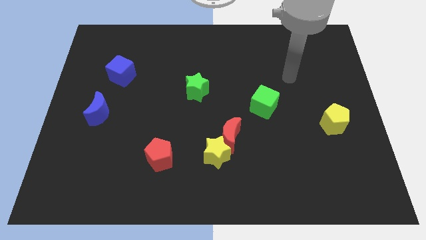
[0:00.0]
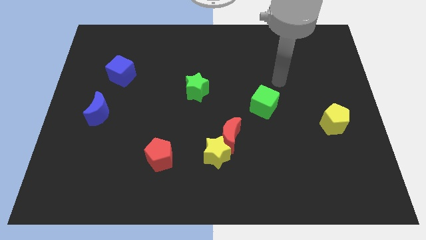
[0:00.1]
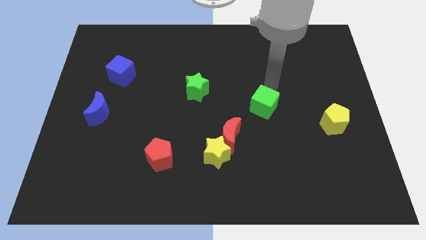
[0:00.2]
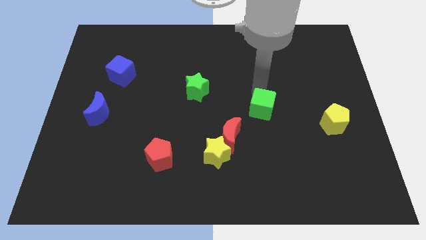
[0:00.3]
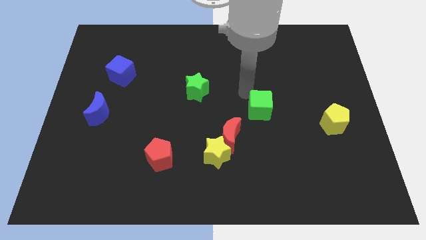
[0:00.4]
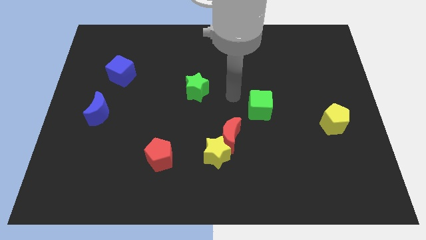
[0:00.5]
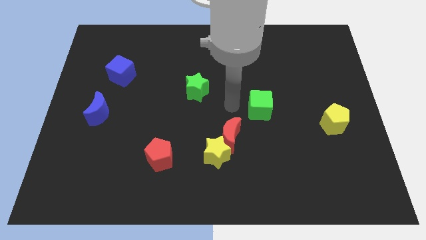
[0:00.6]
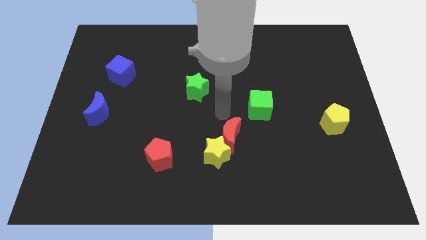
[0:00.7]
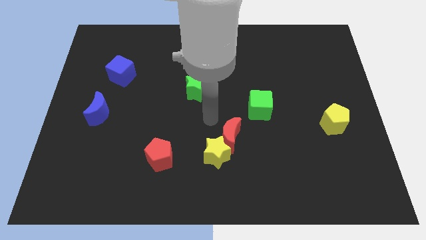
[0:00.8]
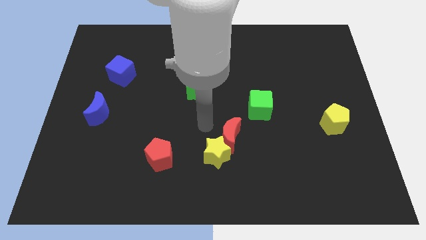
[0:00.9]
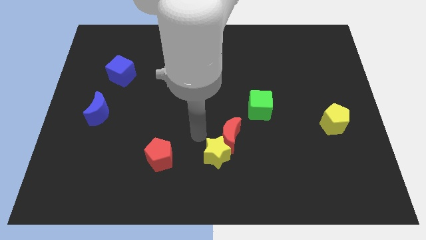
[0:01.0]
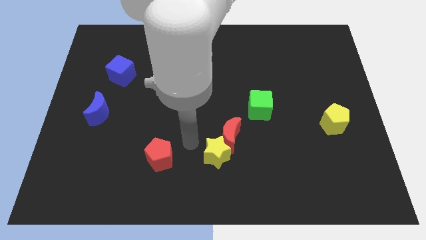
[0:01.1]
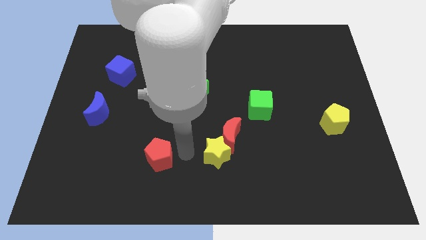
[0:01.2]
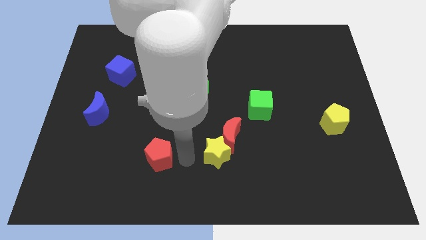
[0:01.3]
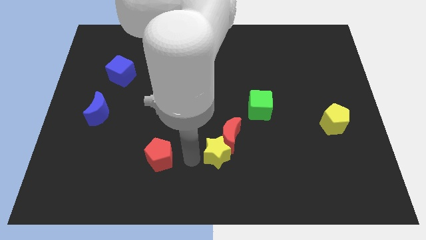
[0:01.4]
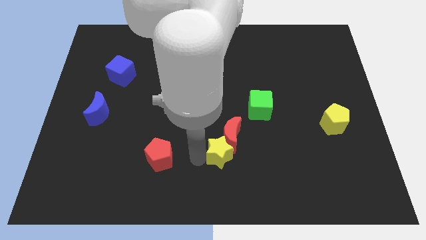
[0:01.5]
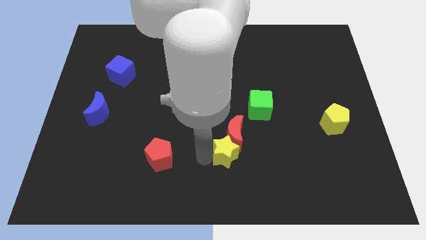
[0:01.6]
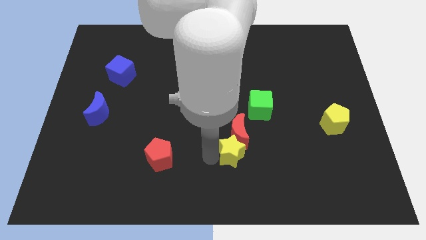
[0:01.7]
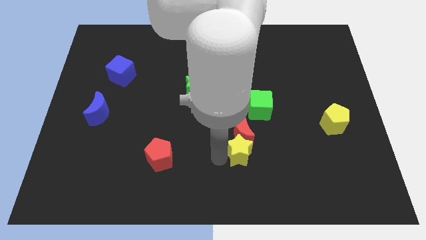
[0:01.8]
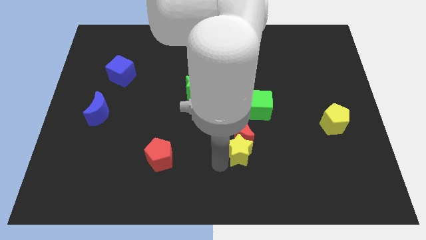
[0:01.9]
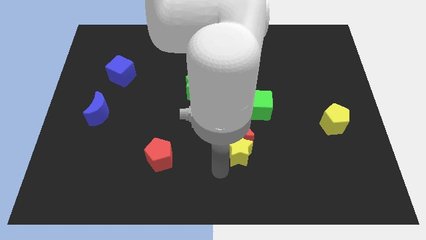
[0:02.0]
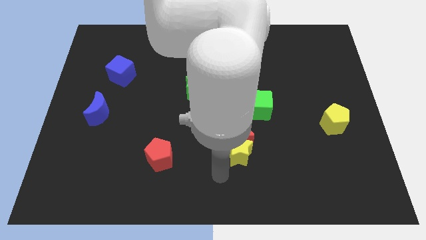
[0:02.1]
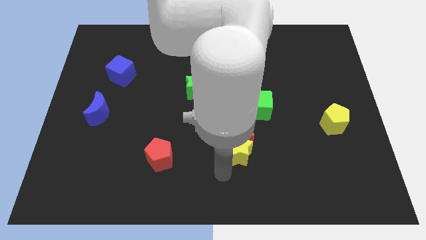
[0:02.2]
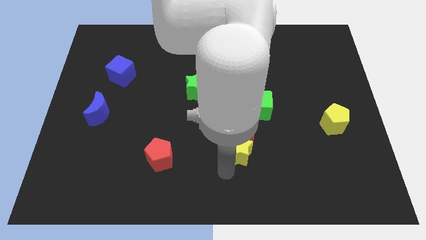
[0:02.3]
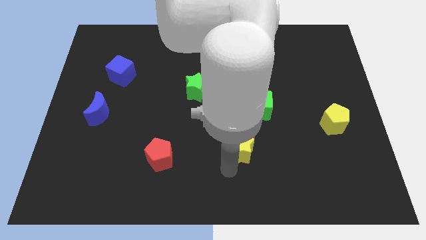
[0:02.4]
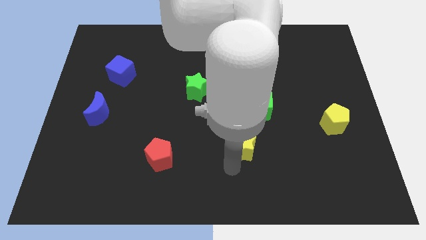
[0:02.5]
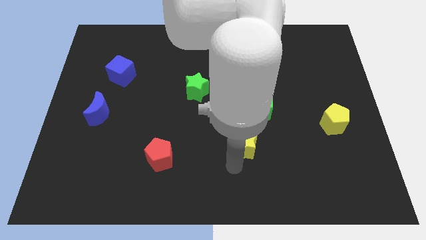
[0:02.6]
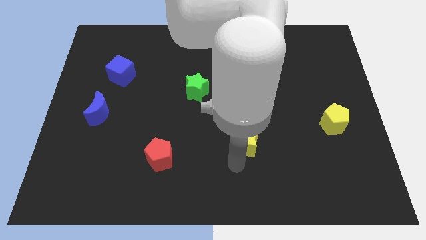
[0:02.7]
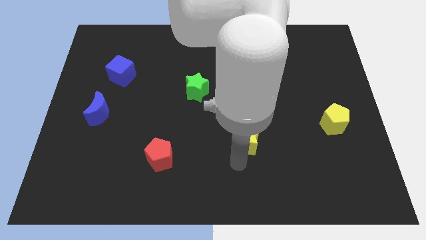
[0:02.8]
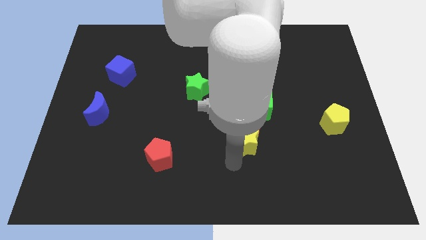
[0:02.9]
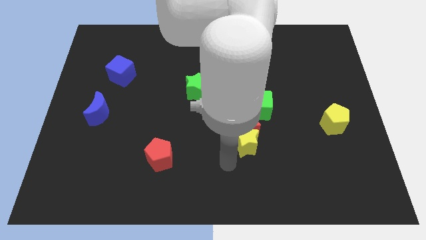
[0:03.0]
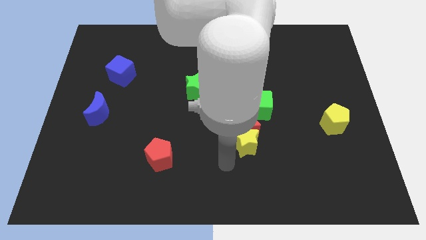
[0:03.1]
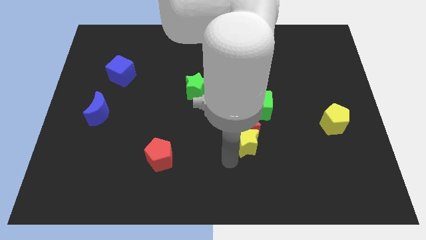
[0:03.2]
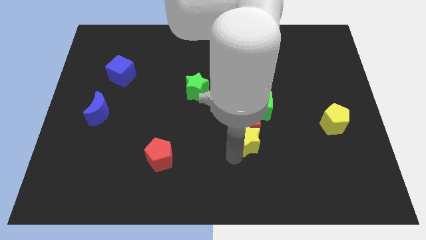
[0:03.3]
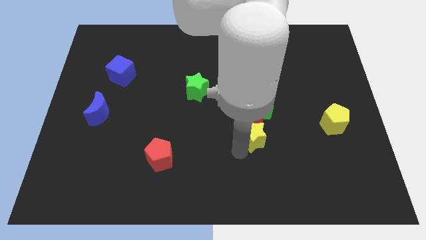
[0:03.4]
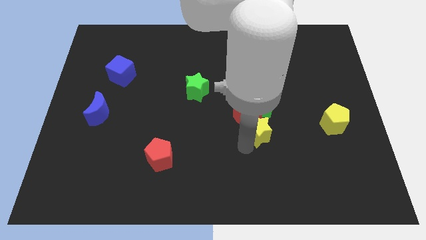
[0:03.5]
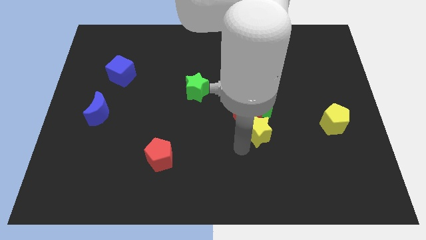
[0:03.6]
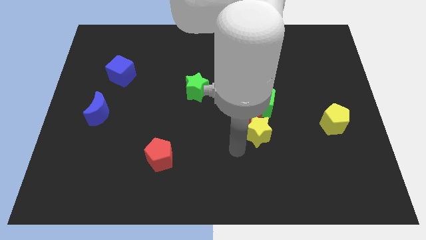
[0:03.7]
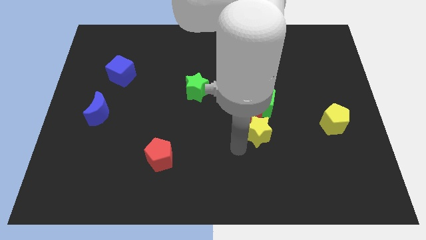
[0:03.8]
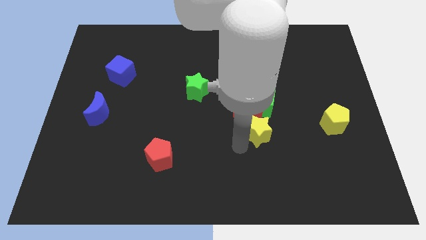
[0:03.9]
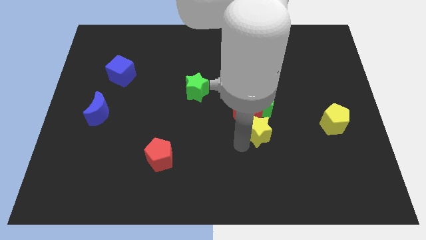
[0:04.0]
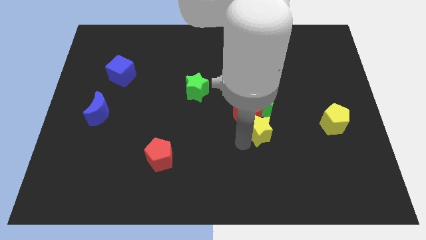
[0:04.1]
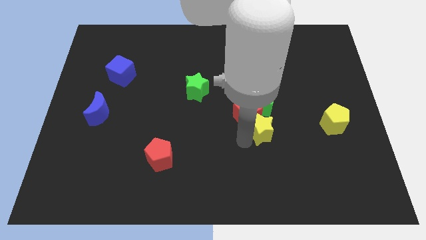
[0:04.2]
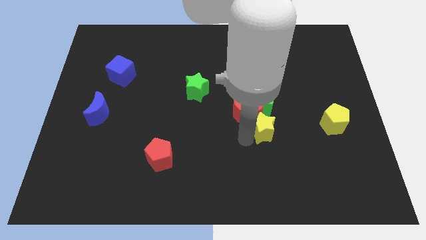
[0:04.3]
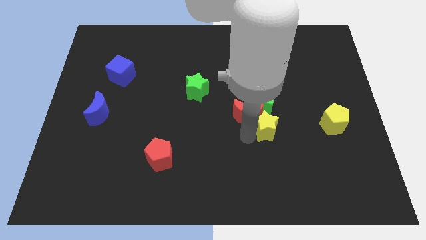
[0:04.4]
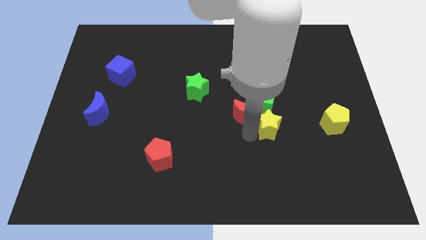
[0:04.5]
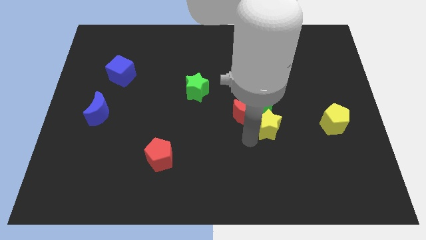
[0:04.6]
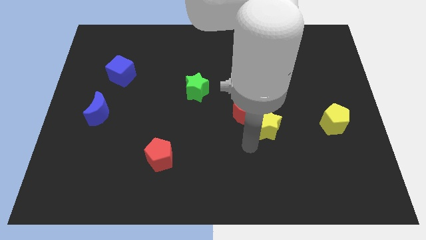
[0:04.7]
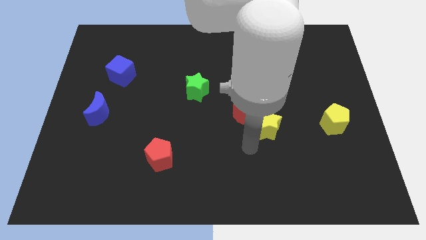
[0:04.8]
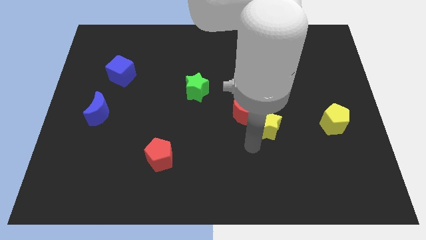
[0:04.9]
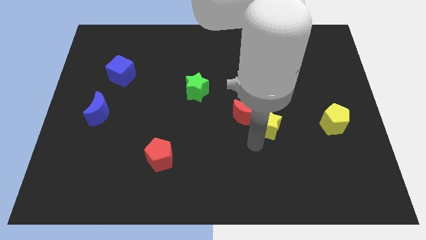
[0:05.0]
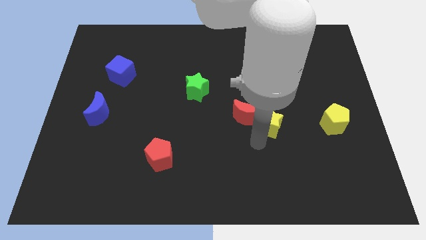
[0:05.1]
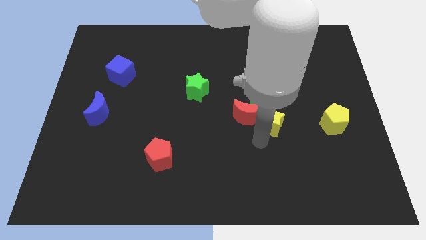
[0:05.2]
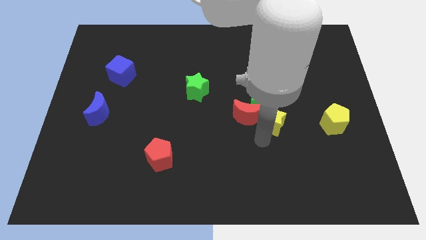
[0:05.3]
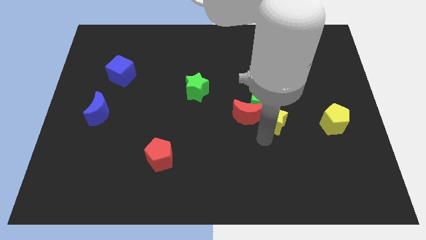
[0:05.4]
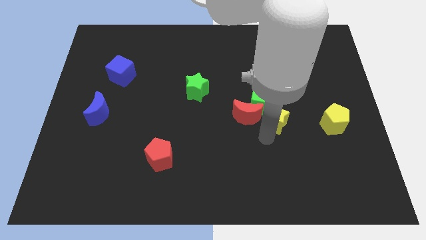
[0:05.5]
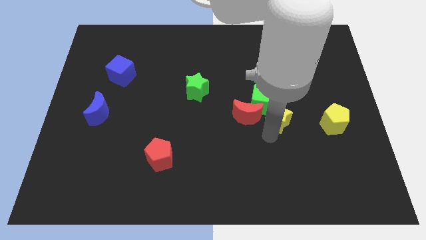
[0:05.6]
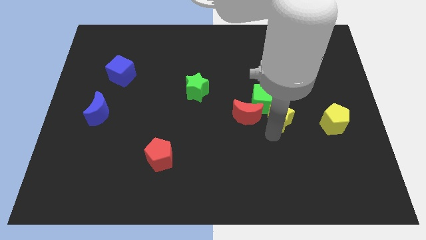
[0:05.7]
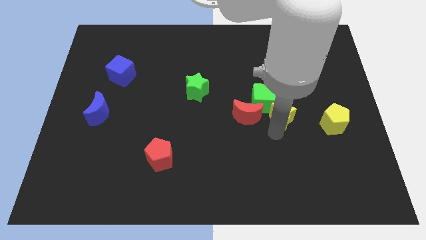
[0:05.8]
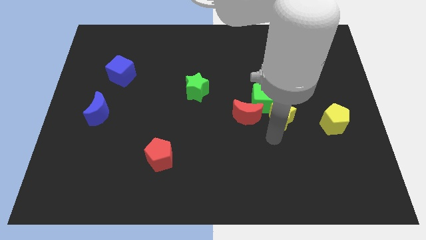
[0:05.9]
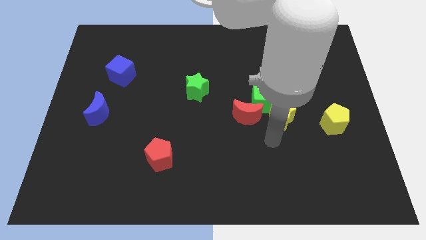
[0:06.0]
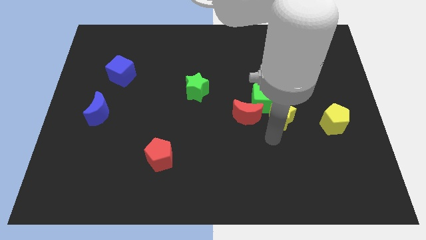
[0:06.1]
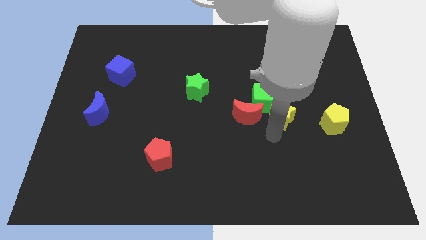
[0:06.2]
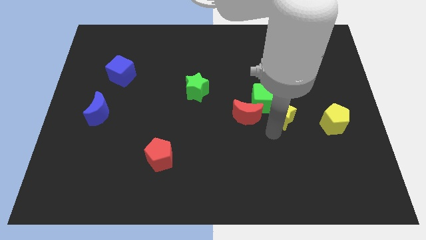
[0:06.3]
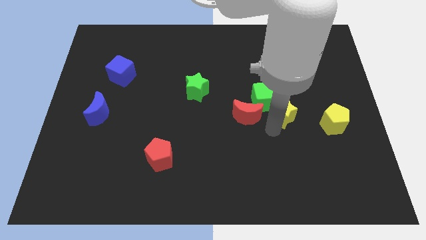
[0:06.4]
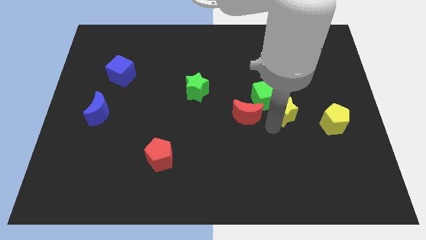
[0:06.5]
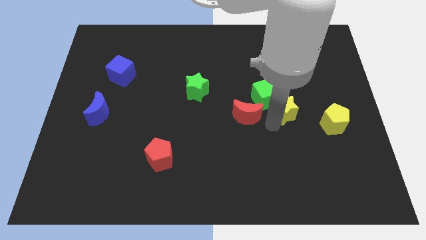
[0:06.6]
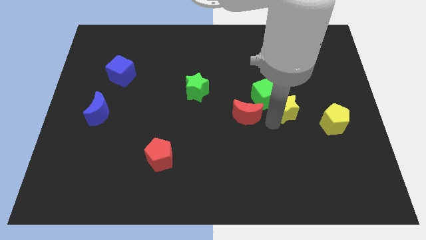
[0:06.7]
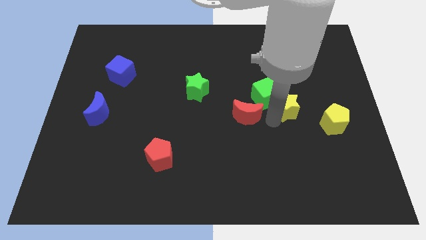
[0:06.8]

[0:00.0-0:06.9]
slide the yellow star upwards and to the right diagonally

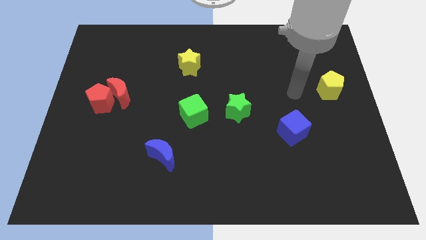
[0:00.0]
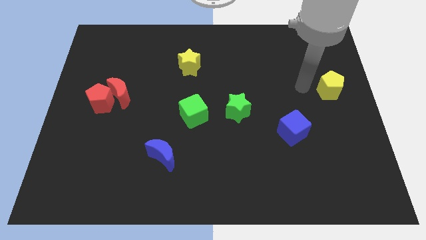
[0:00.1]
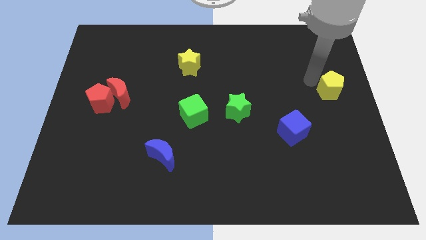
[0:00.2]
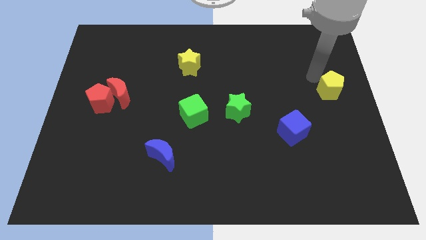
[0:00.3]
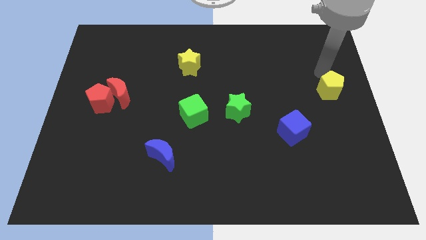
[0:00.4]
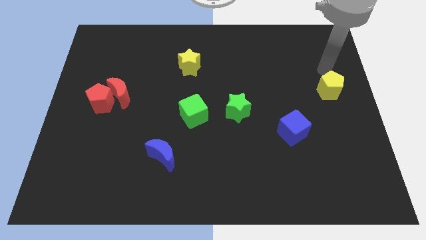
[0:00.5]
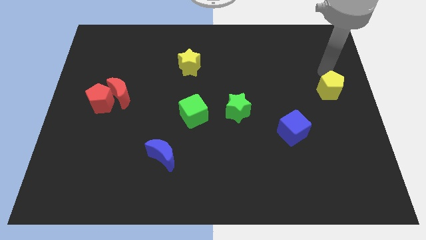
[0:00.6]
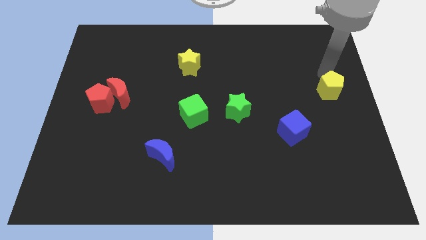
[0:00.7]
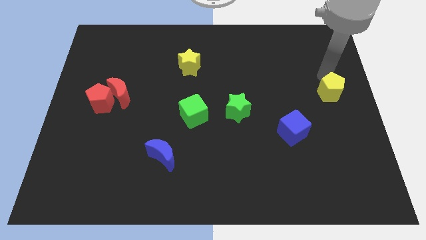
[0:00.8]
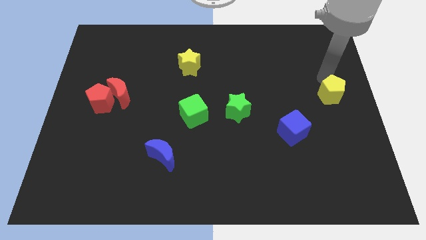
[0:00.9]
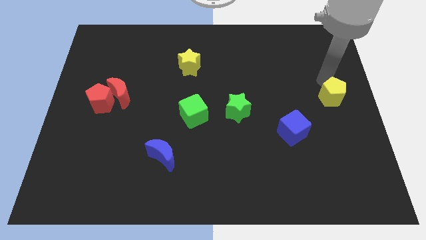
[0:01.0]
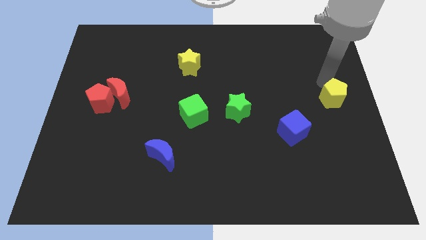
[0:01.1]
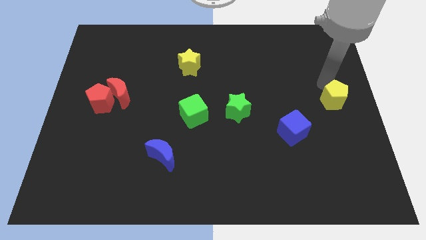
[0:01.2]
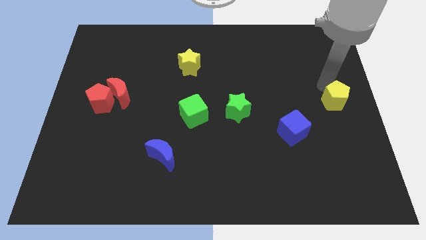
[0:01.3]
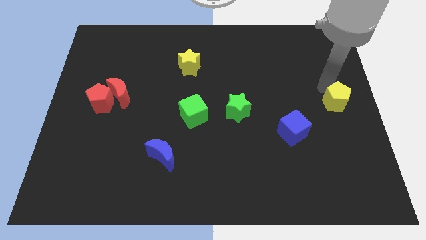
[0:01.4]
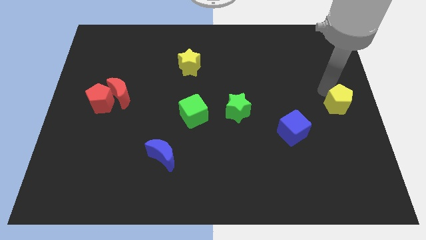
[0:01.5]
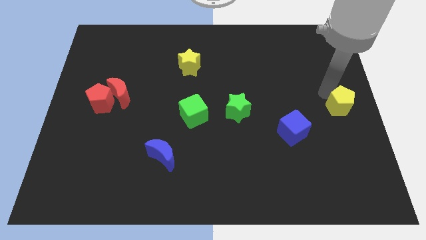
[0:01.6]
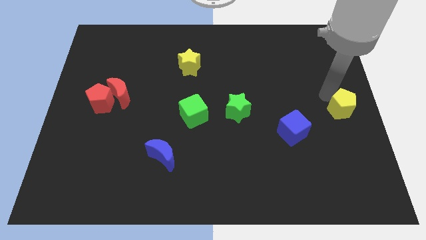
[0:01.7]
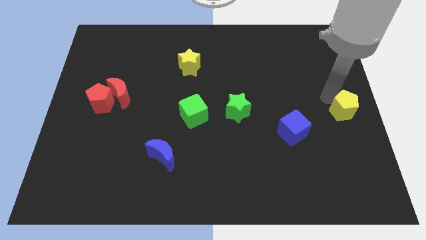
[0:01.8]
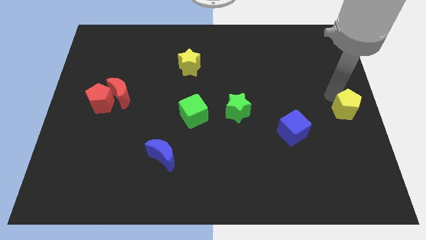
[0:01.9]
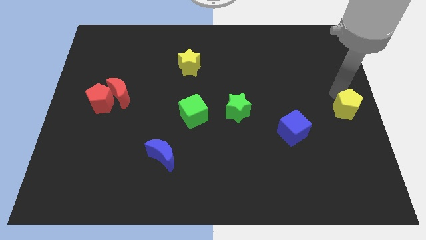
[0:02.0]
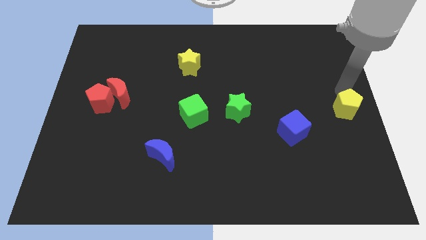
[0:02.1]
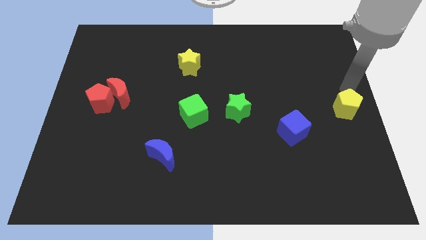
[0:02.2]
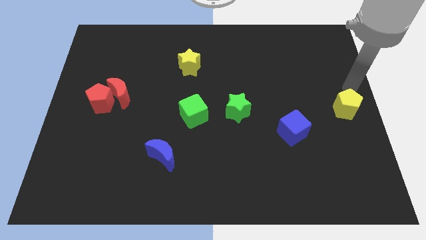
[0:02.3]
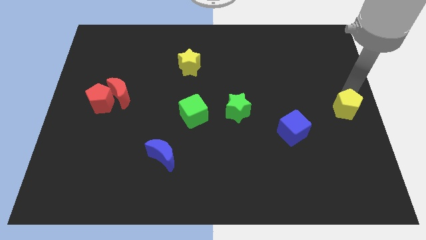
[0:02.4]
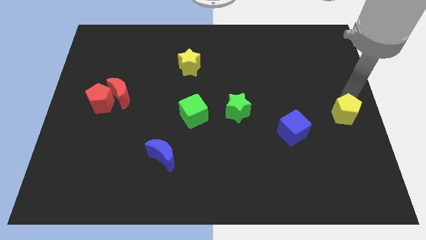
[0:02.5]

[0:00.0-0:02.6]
slightly push the yellow pentagon down
